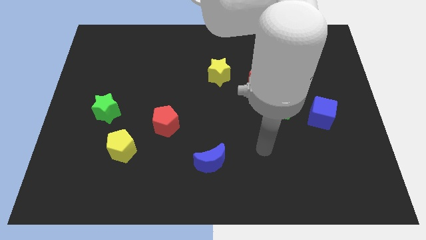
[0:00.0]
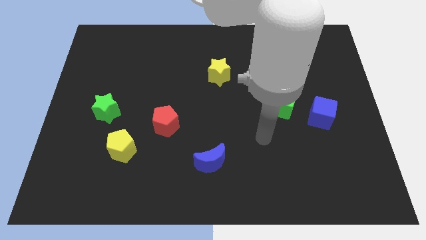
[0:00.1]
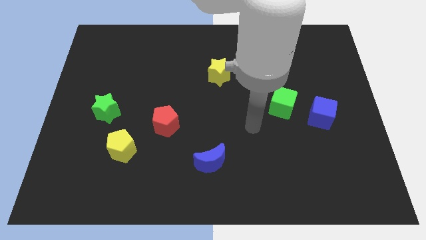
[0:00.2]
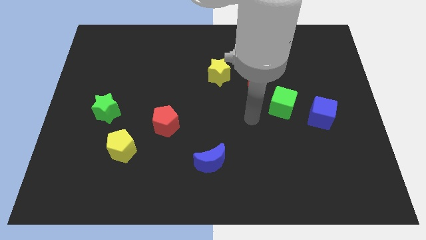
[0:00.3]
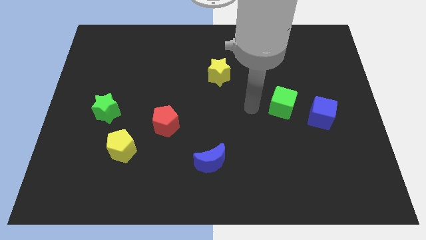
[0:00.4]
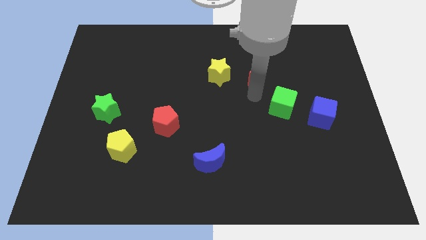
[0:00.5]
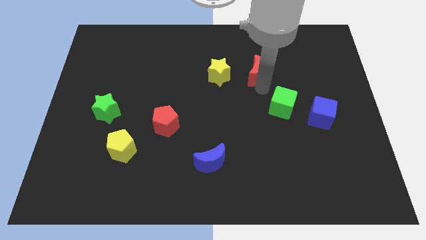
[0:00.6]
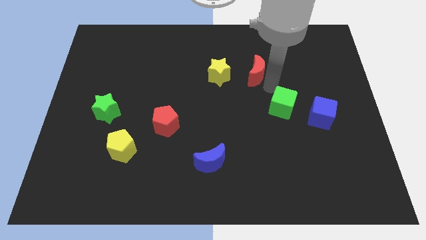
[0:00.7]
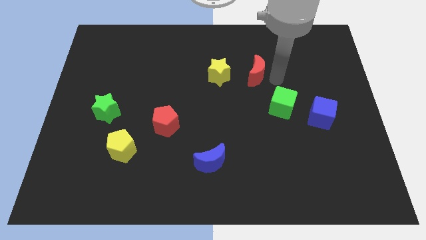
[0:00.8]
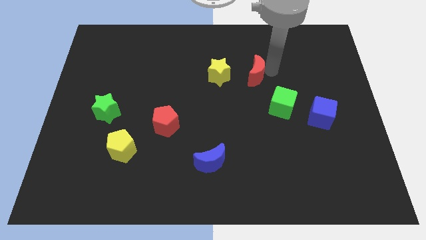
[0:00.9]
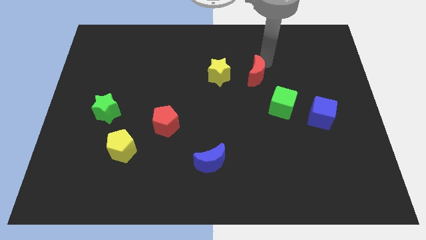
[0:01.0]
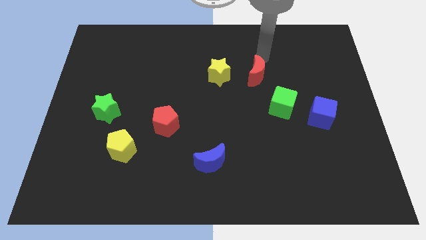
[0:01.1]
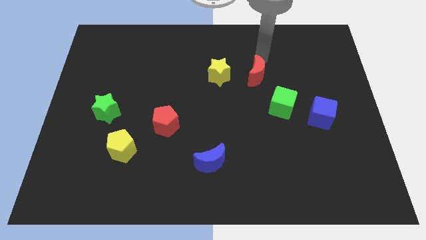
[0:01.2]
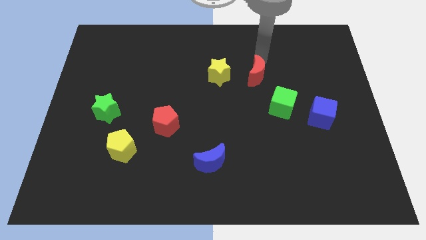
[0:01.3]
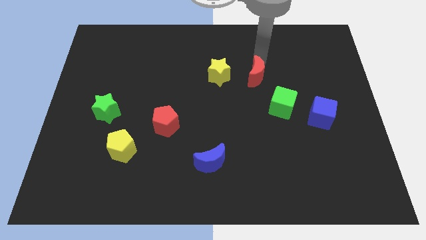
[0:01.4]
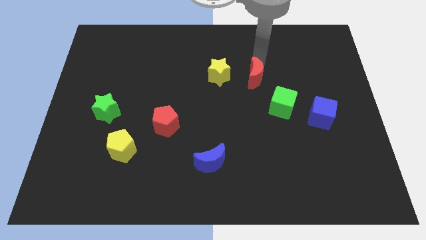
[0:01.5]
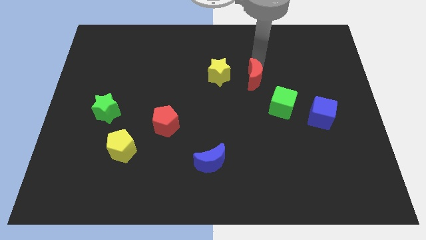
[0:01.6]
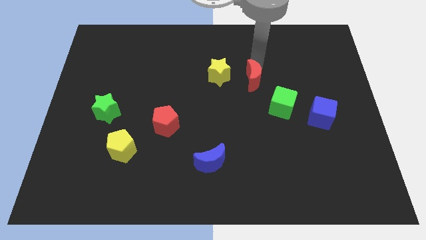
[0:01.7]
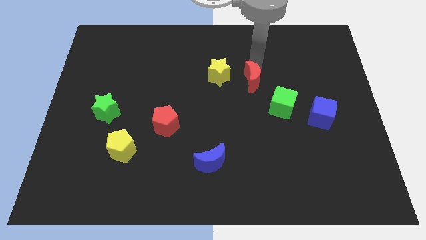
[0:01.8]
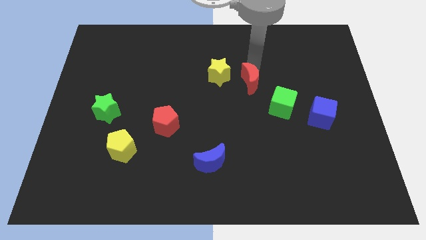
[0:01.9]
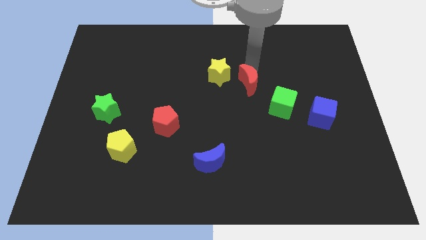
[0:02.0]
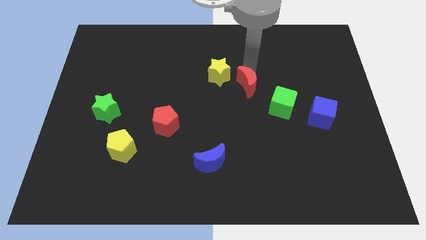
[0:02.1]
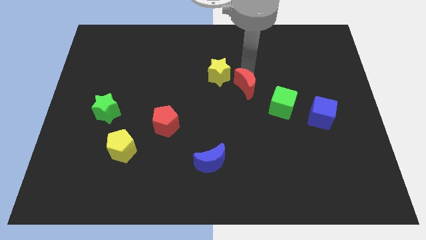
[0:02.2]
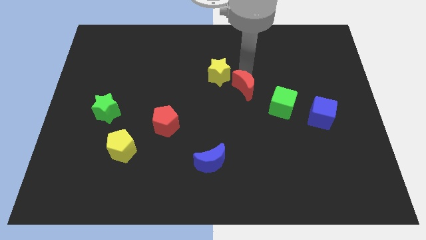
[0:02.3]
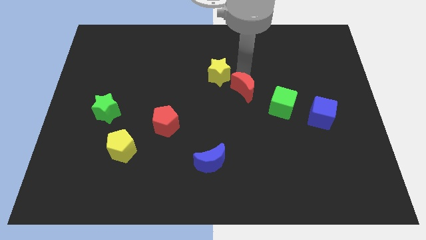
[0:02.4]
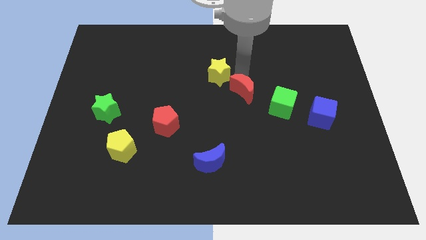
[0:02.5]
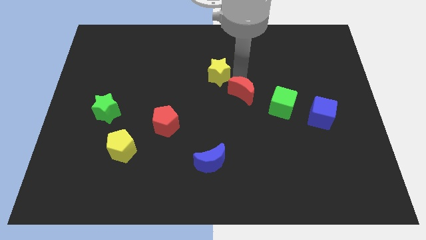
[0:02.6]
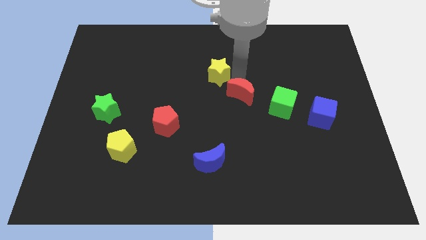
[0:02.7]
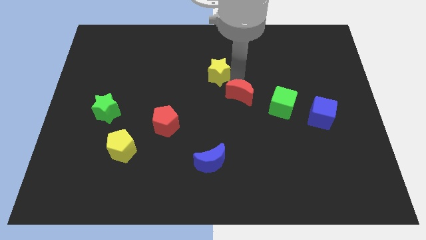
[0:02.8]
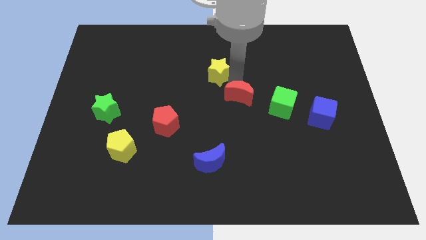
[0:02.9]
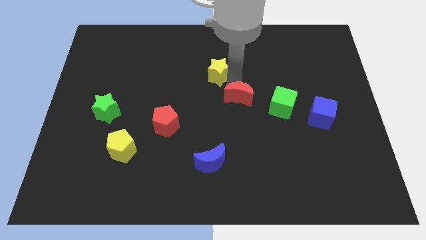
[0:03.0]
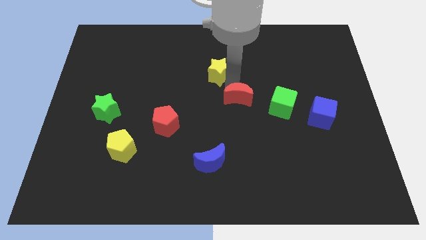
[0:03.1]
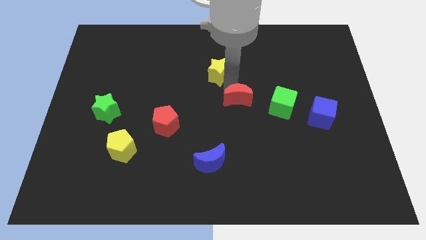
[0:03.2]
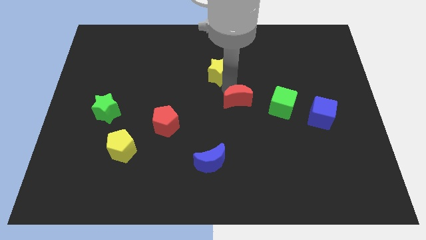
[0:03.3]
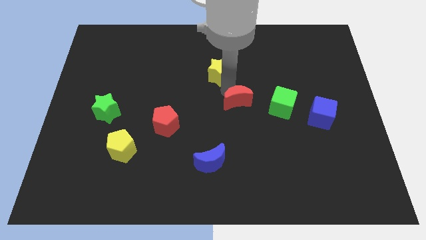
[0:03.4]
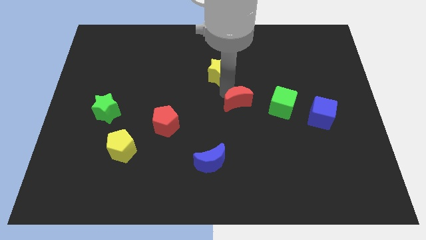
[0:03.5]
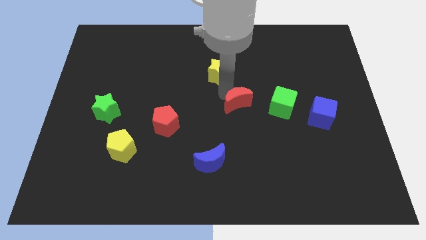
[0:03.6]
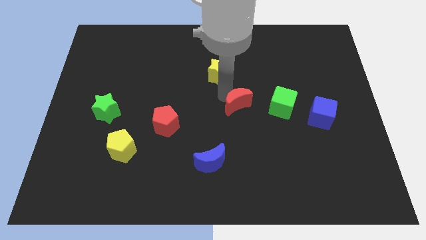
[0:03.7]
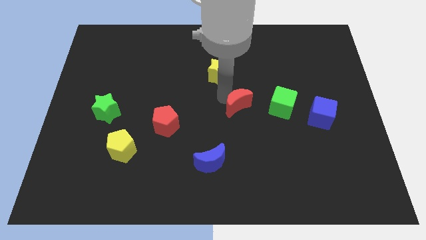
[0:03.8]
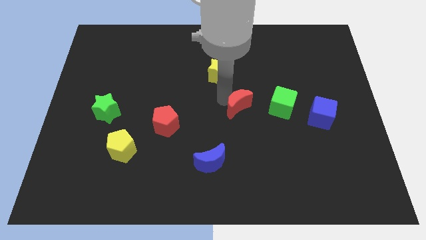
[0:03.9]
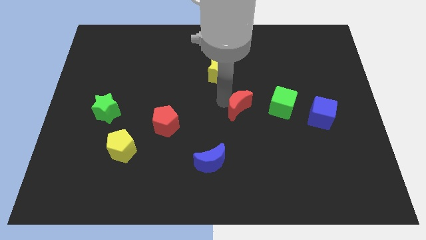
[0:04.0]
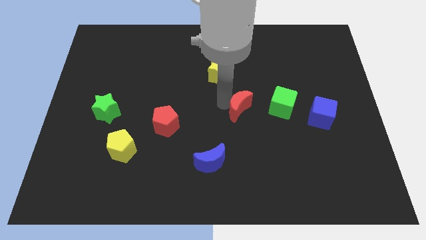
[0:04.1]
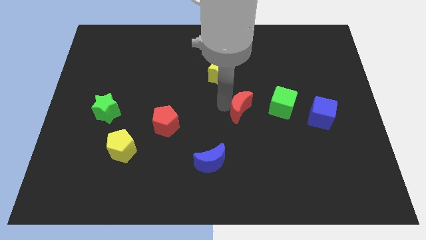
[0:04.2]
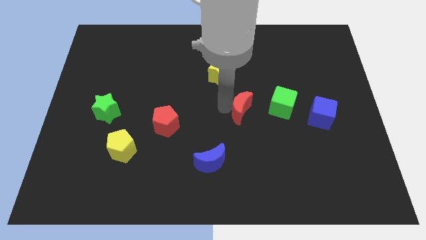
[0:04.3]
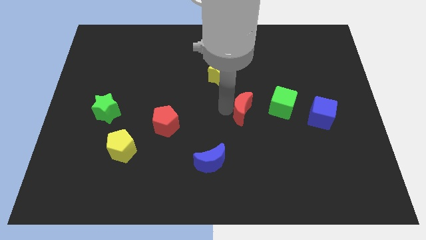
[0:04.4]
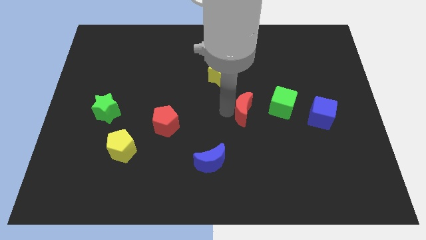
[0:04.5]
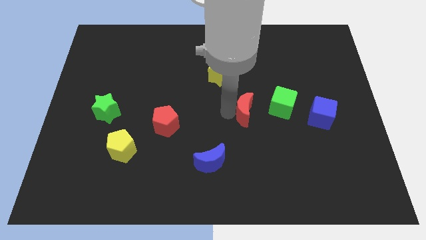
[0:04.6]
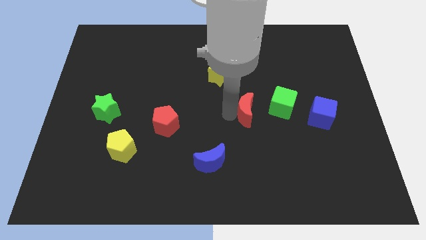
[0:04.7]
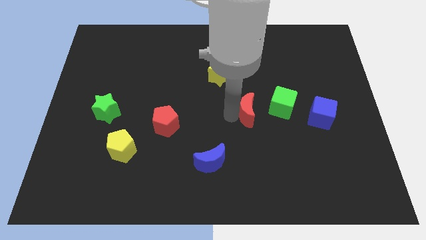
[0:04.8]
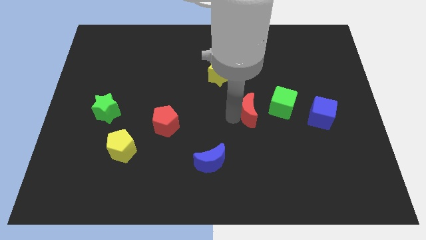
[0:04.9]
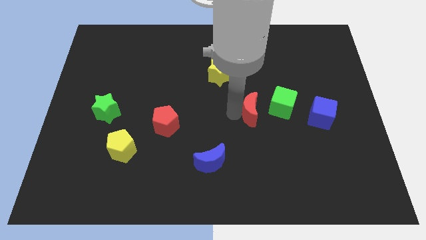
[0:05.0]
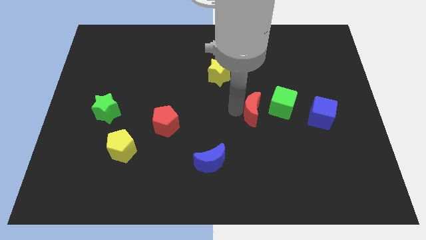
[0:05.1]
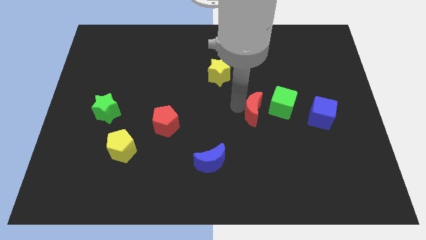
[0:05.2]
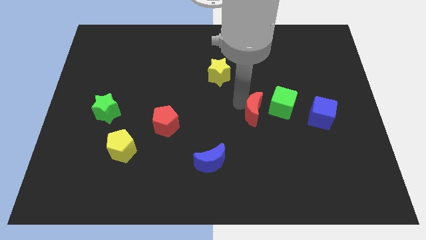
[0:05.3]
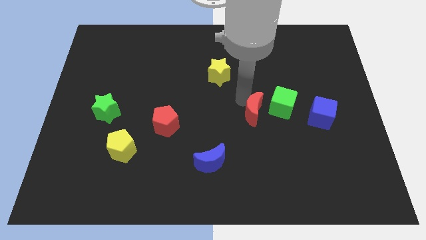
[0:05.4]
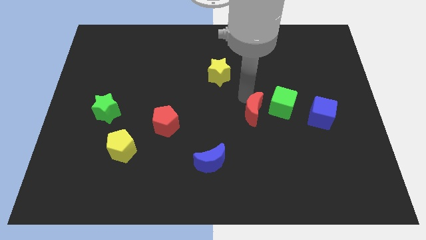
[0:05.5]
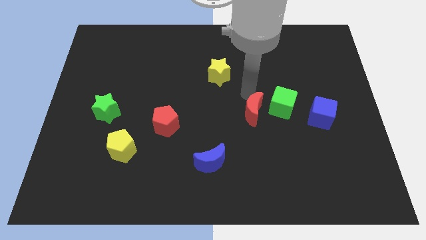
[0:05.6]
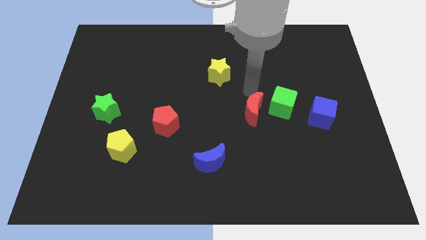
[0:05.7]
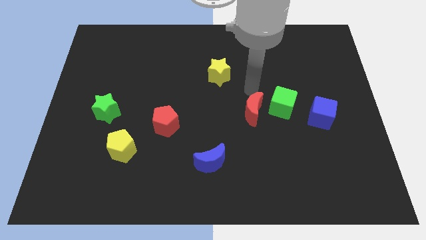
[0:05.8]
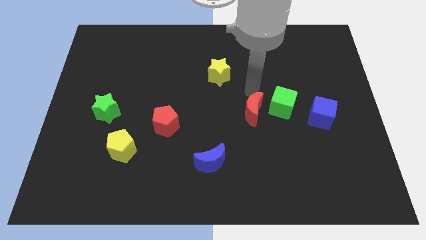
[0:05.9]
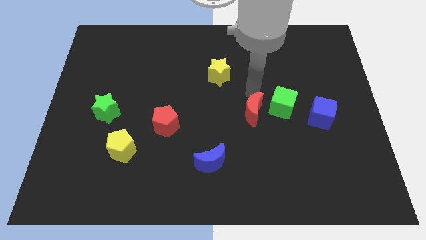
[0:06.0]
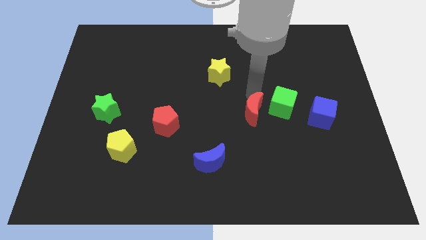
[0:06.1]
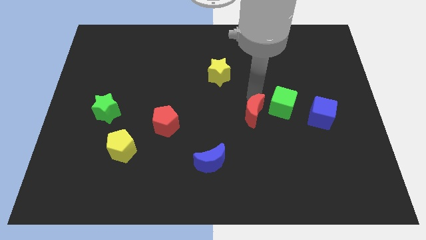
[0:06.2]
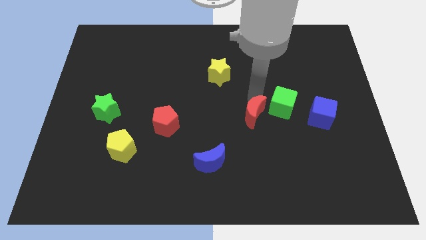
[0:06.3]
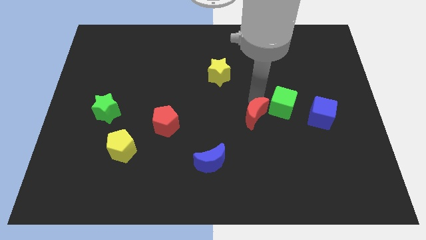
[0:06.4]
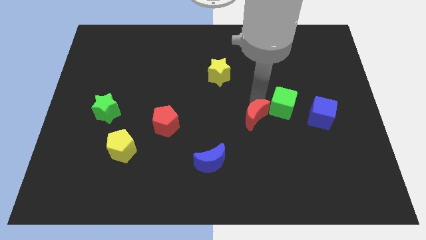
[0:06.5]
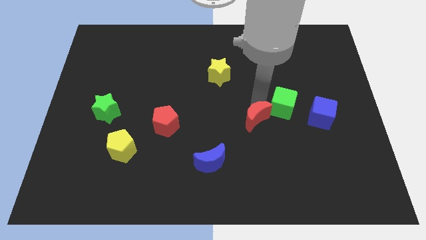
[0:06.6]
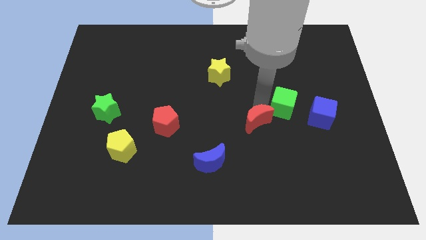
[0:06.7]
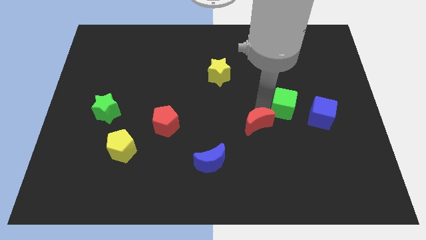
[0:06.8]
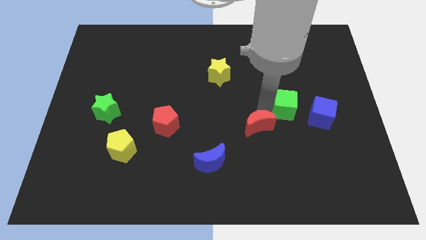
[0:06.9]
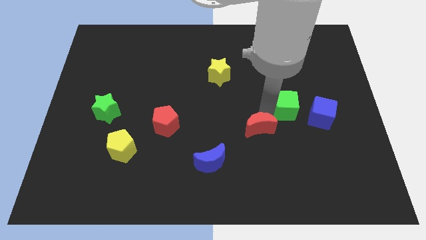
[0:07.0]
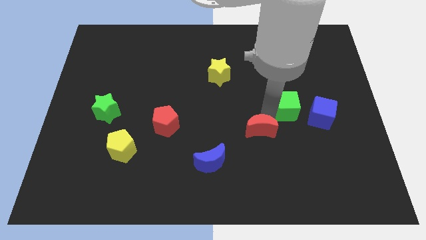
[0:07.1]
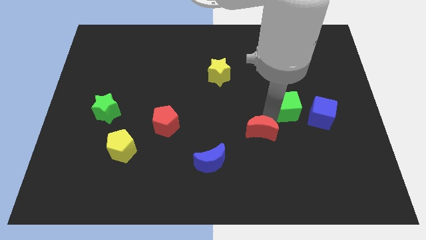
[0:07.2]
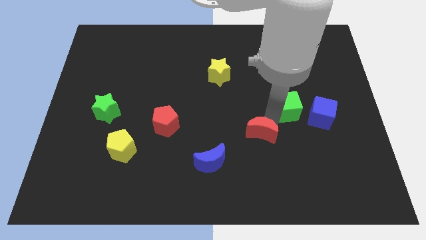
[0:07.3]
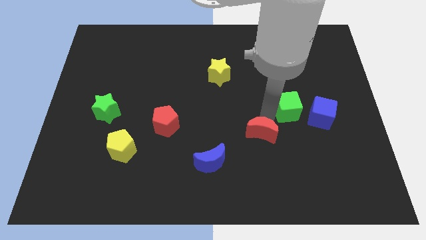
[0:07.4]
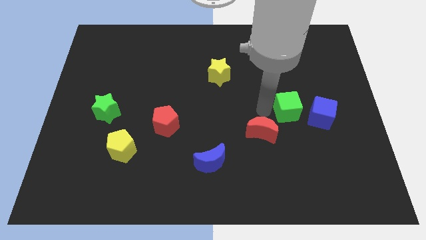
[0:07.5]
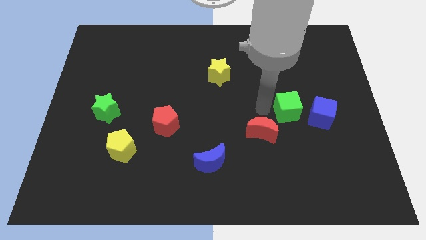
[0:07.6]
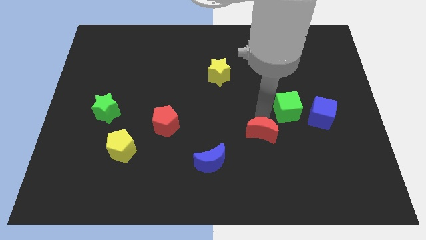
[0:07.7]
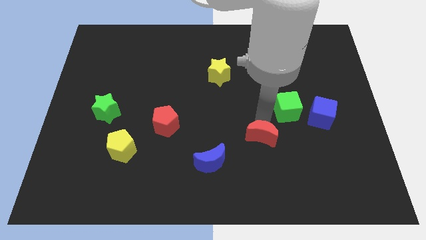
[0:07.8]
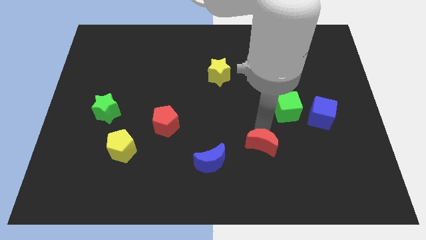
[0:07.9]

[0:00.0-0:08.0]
put the red moon to the right of the blue moon
